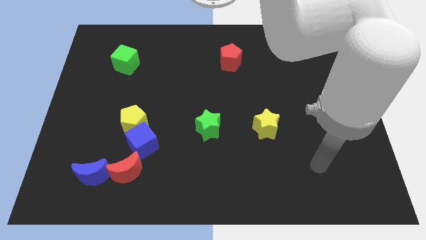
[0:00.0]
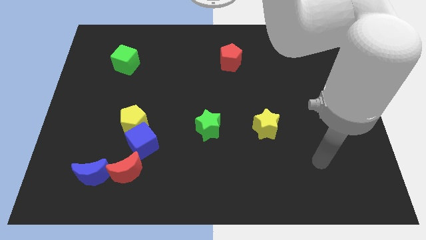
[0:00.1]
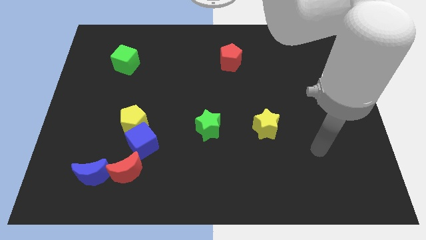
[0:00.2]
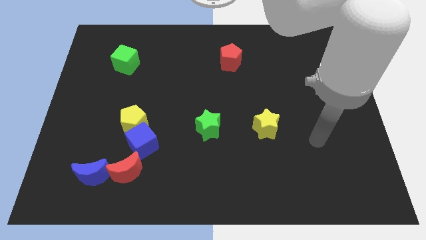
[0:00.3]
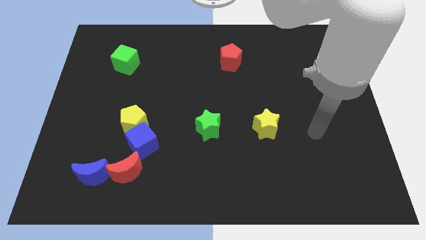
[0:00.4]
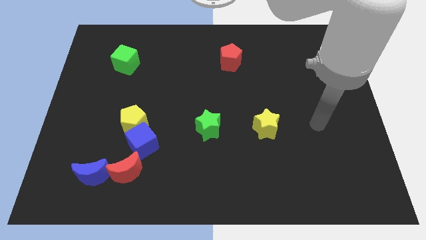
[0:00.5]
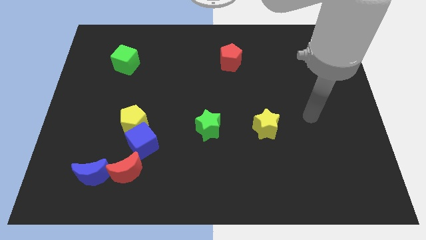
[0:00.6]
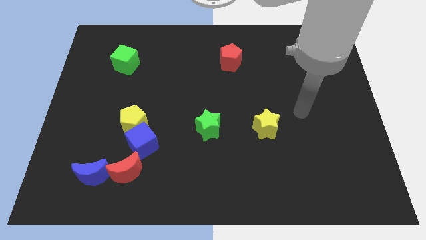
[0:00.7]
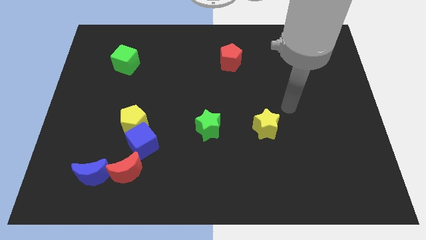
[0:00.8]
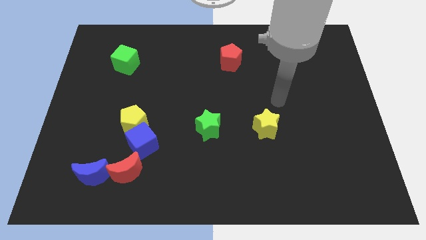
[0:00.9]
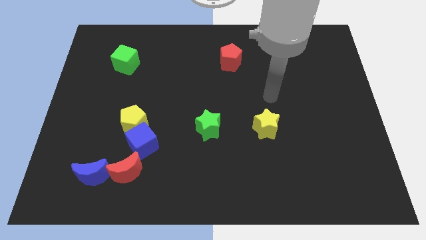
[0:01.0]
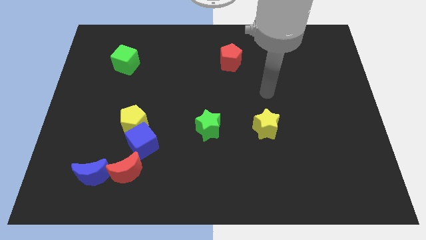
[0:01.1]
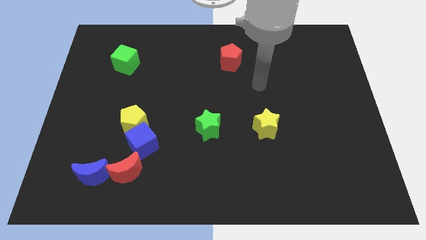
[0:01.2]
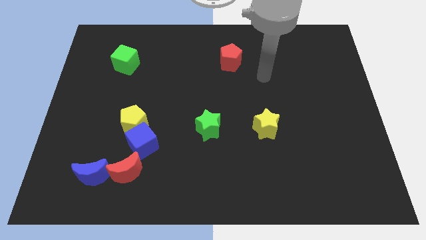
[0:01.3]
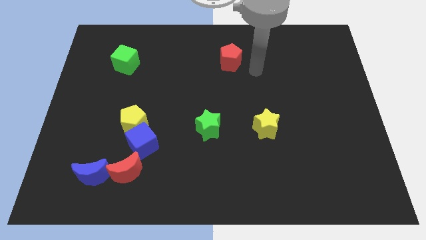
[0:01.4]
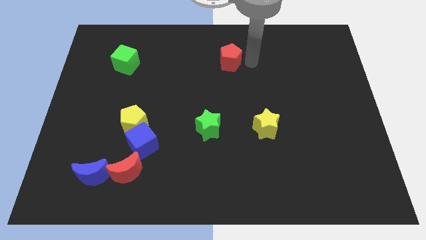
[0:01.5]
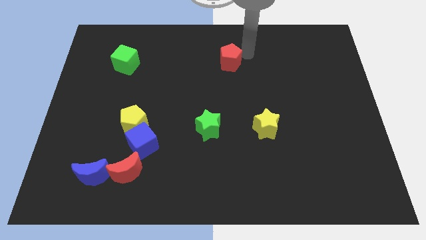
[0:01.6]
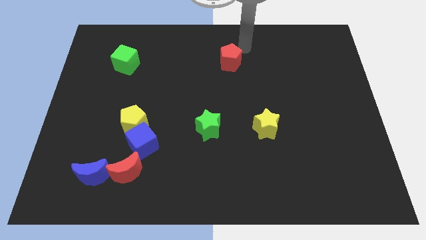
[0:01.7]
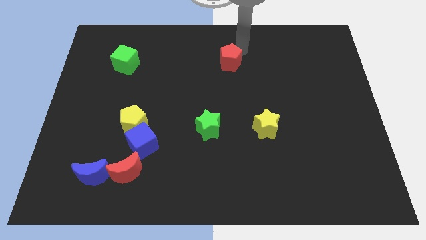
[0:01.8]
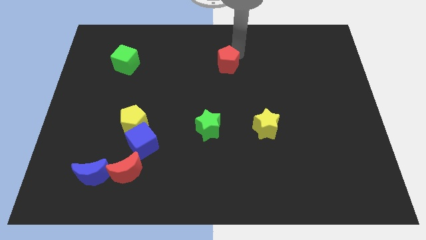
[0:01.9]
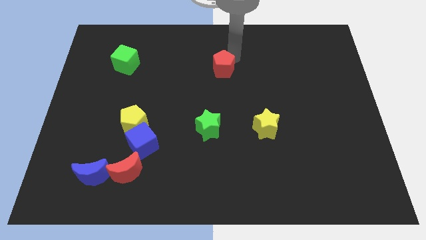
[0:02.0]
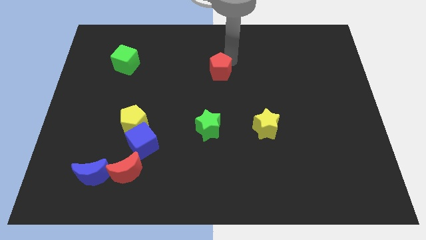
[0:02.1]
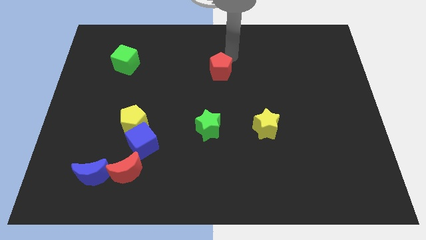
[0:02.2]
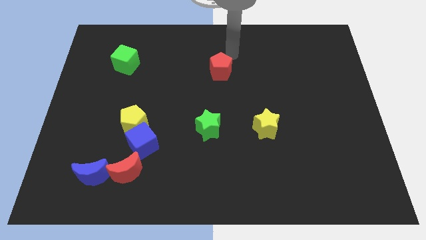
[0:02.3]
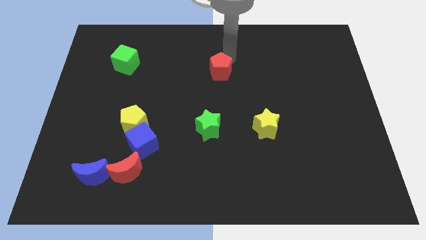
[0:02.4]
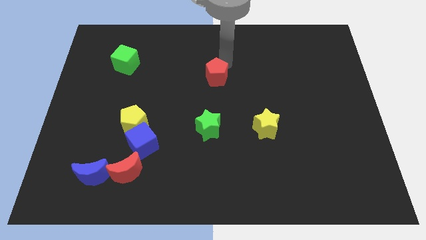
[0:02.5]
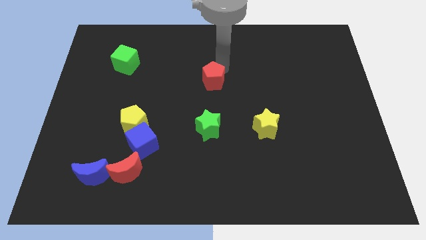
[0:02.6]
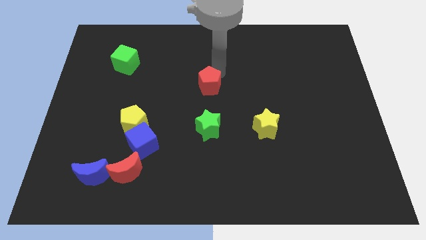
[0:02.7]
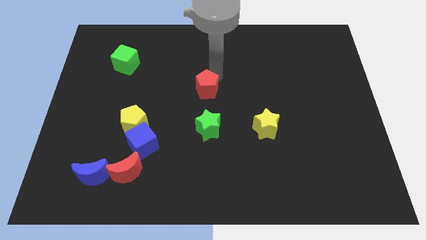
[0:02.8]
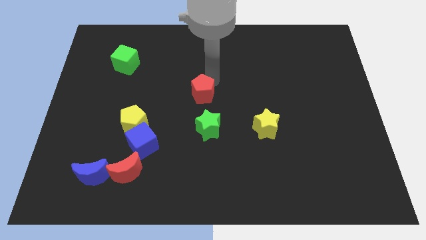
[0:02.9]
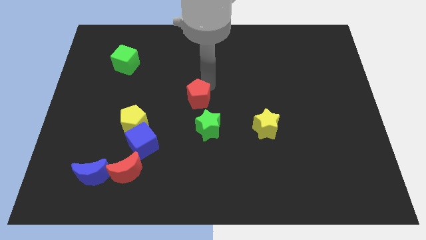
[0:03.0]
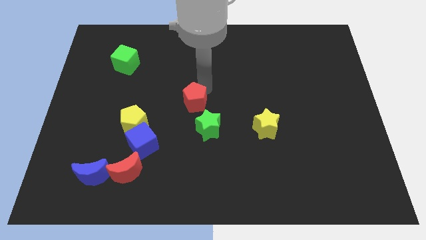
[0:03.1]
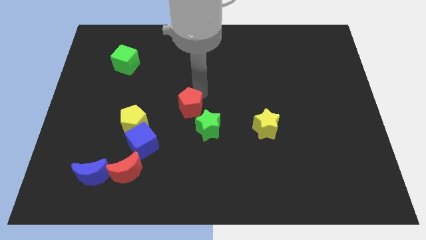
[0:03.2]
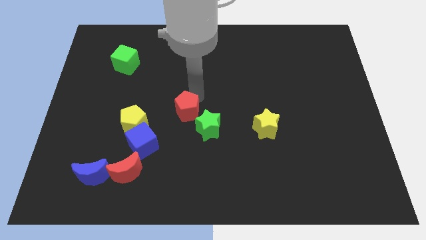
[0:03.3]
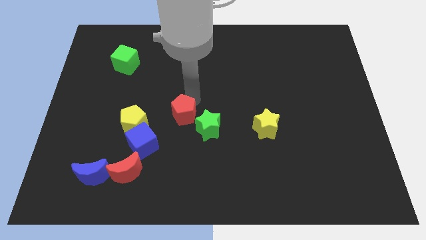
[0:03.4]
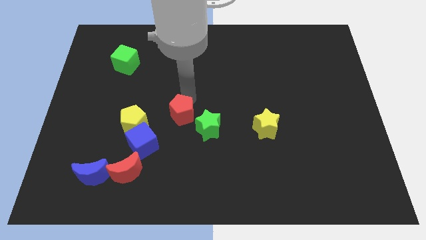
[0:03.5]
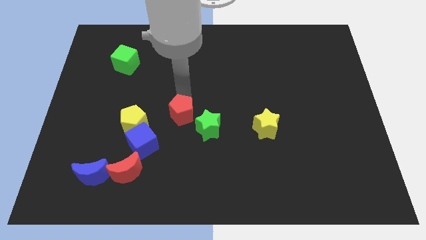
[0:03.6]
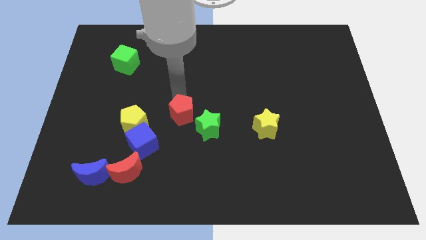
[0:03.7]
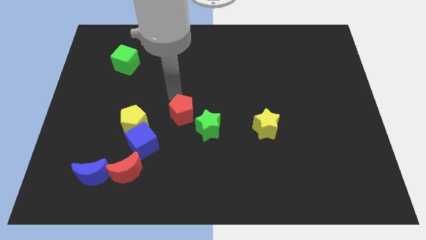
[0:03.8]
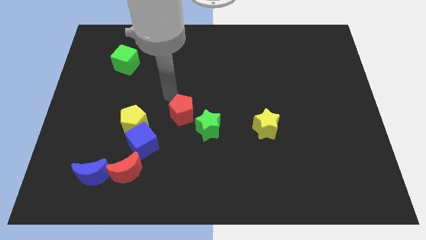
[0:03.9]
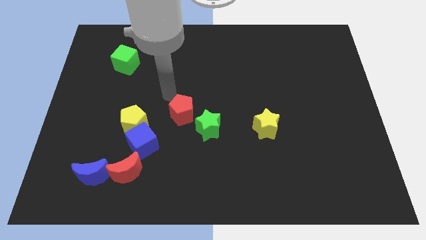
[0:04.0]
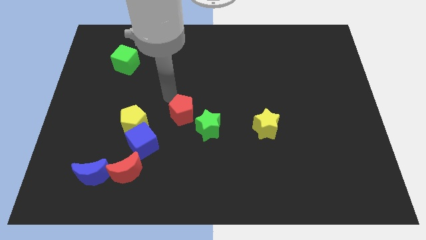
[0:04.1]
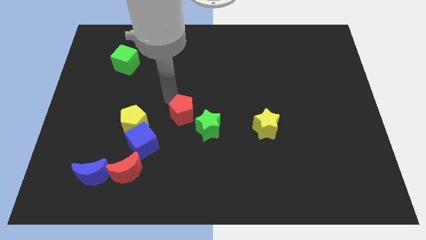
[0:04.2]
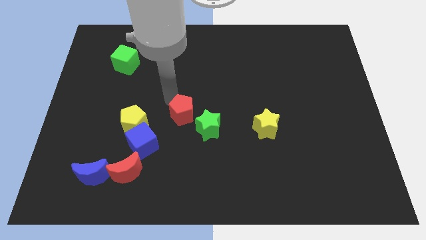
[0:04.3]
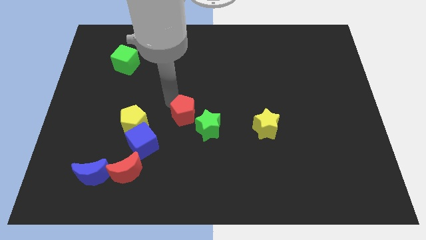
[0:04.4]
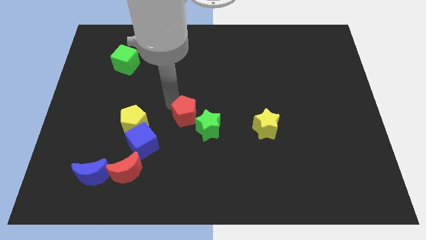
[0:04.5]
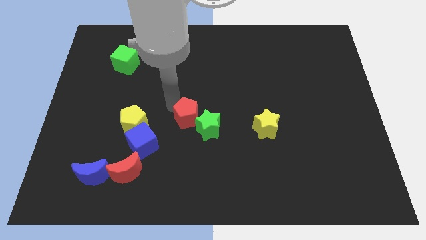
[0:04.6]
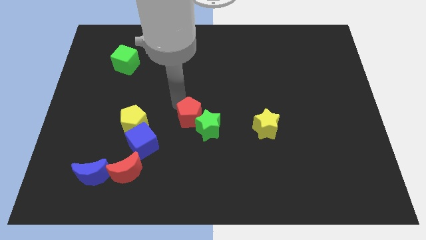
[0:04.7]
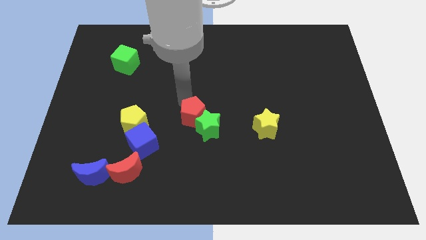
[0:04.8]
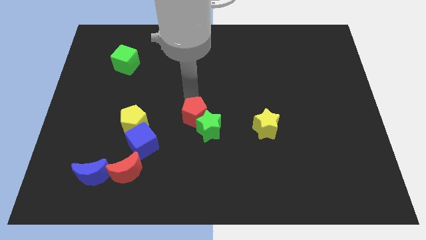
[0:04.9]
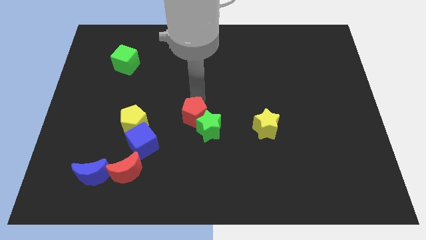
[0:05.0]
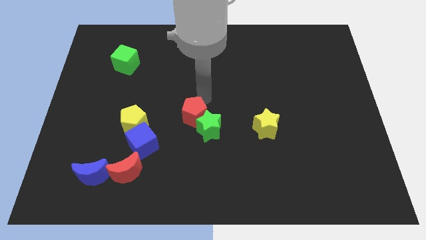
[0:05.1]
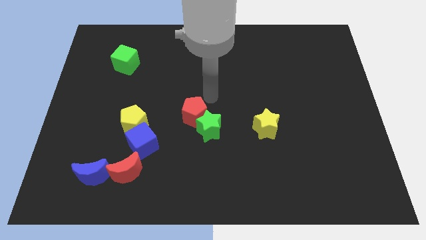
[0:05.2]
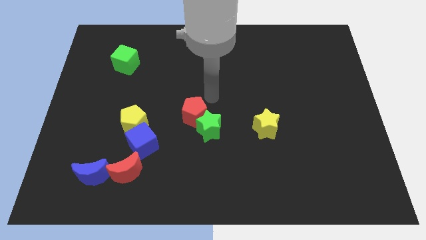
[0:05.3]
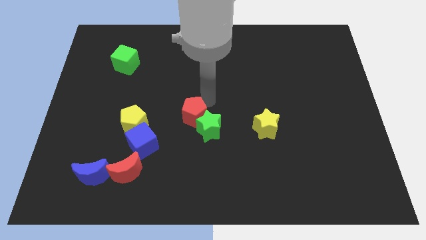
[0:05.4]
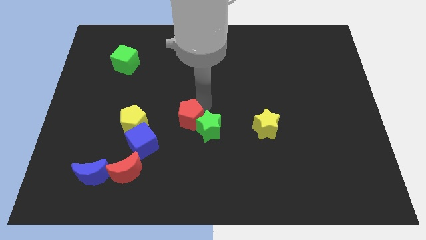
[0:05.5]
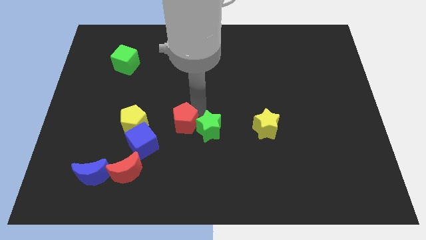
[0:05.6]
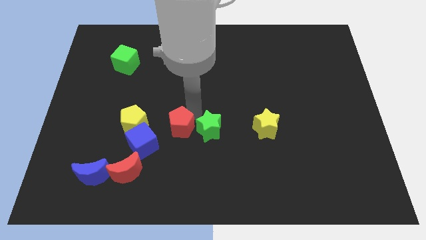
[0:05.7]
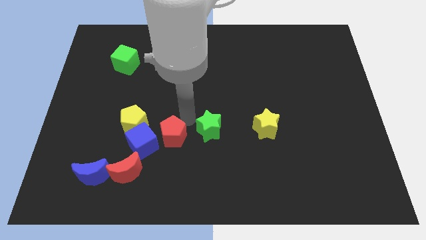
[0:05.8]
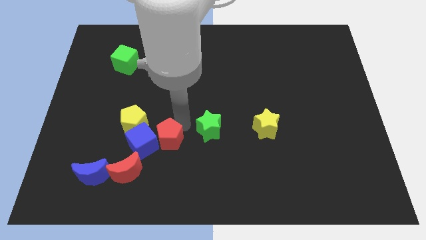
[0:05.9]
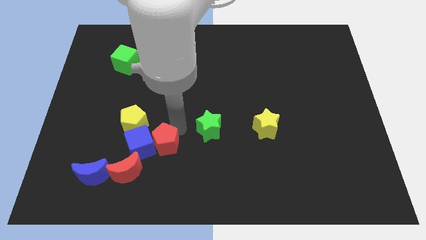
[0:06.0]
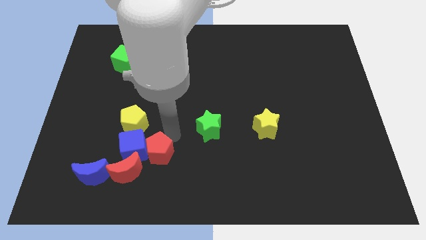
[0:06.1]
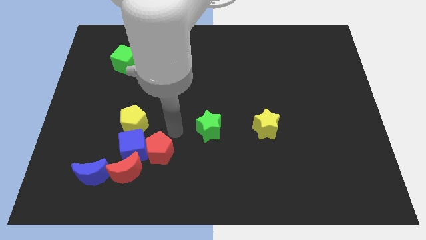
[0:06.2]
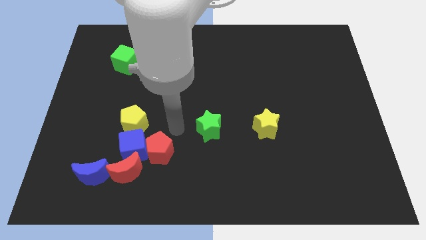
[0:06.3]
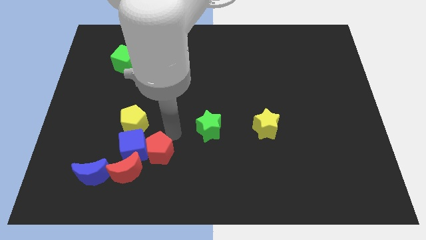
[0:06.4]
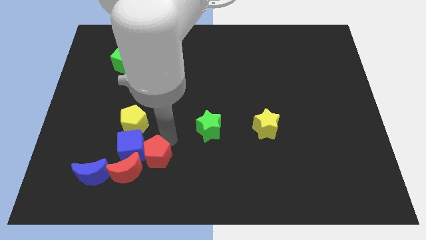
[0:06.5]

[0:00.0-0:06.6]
slide the red pentagon to the right side of the blue moon
